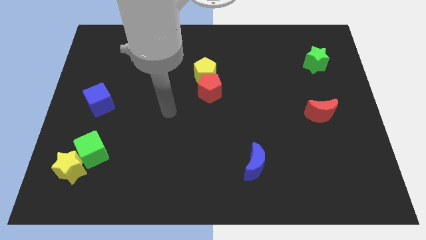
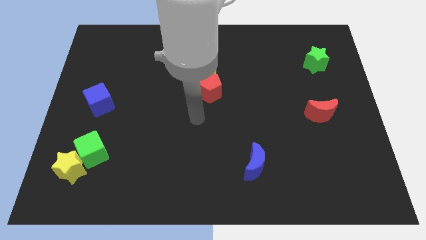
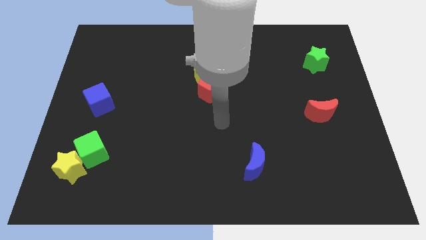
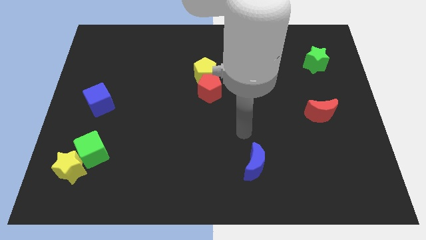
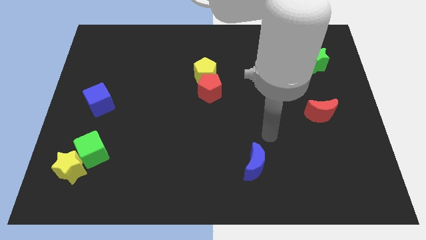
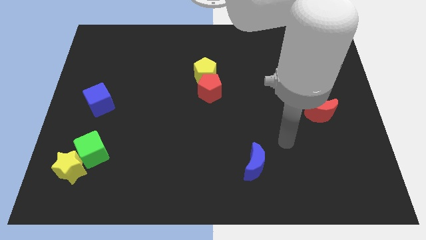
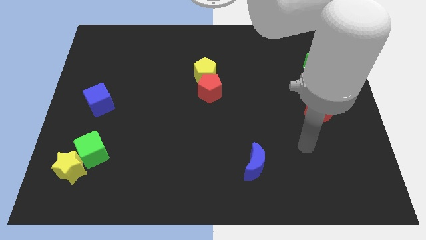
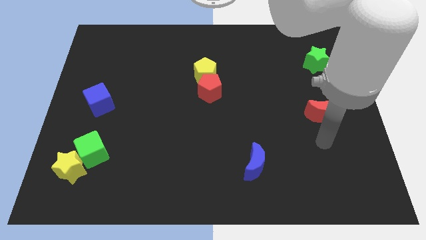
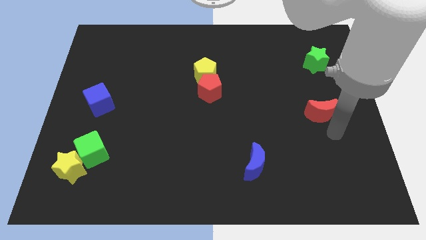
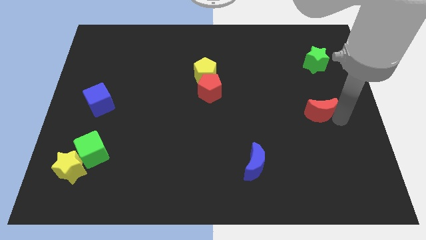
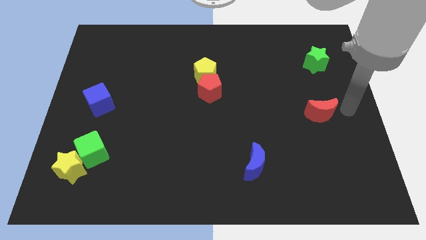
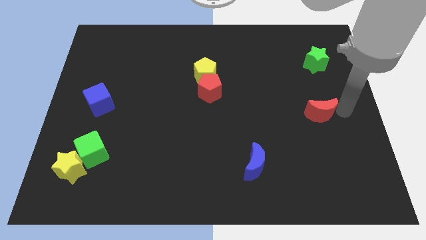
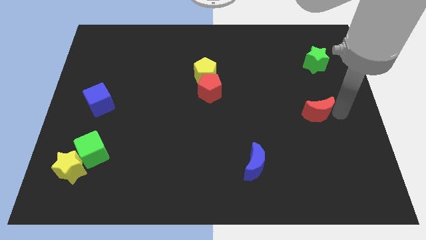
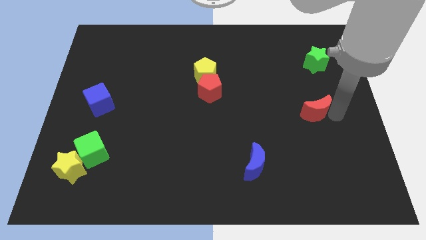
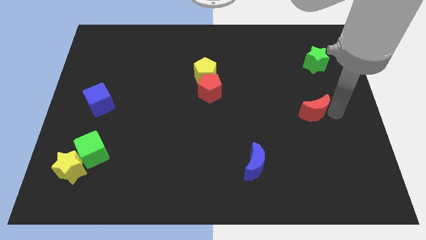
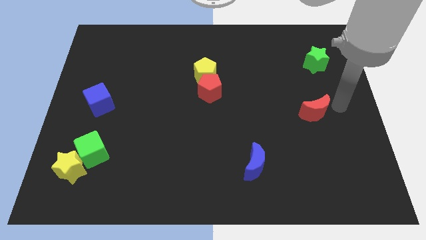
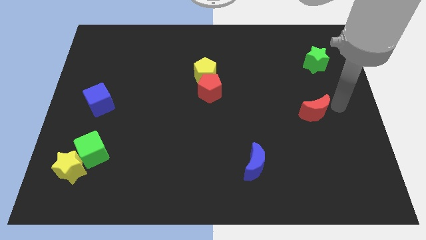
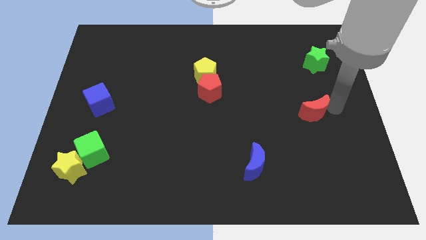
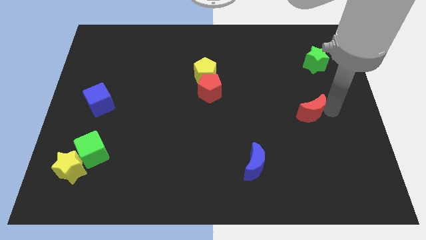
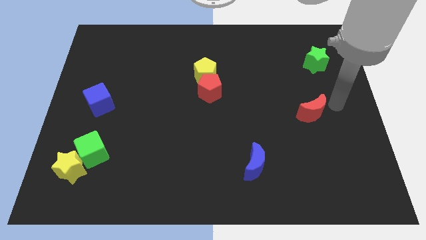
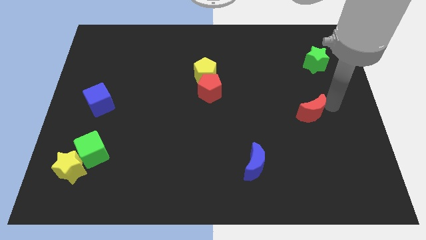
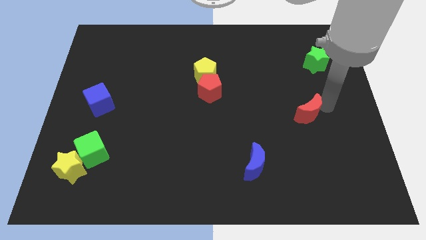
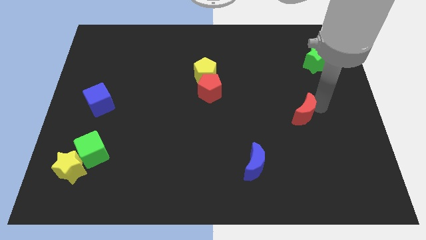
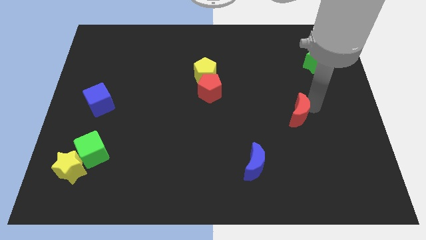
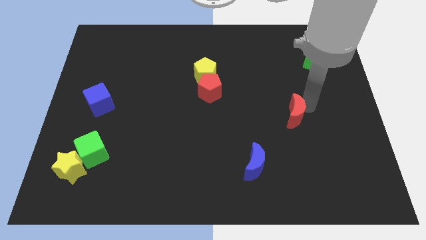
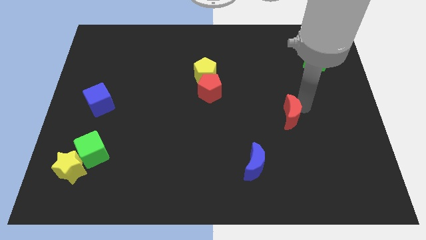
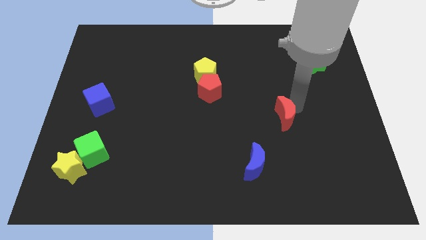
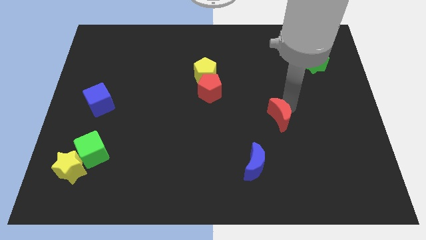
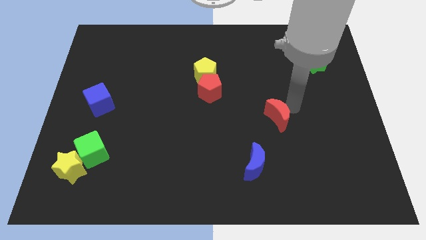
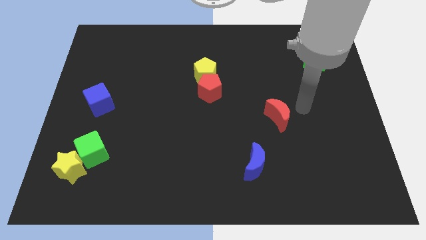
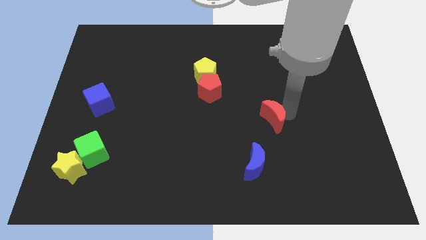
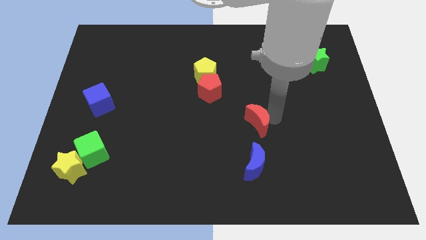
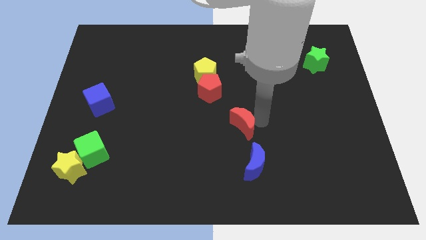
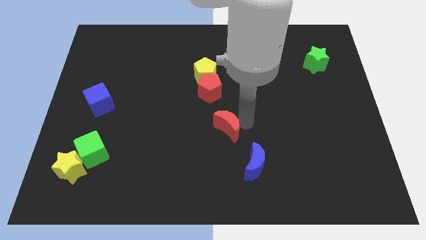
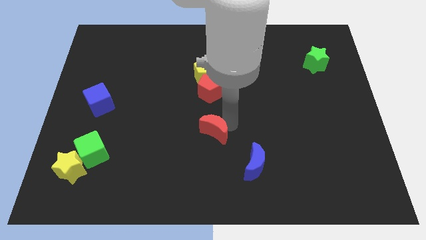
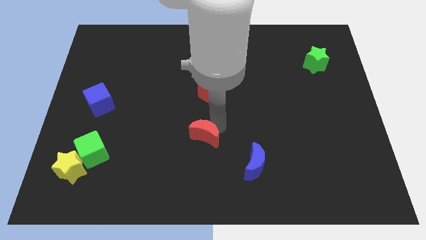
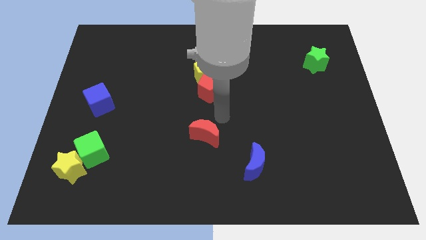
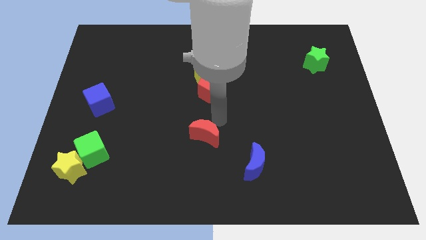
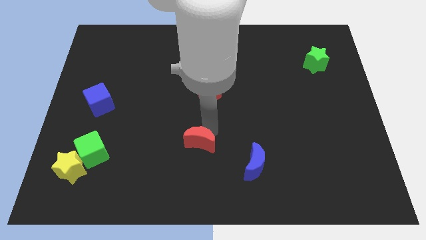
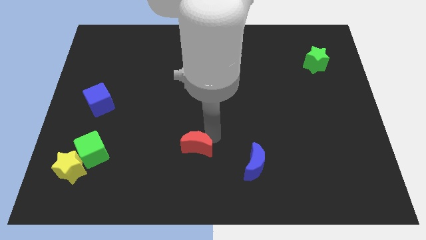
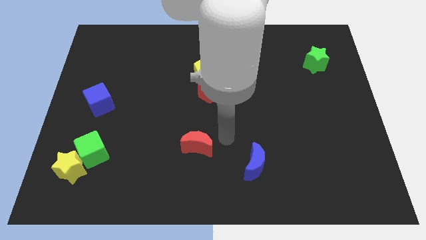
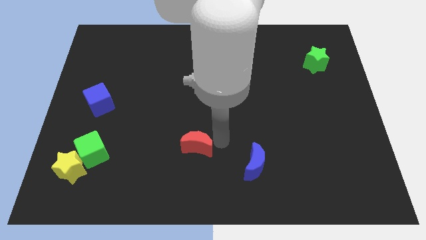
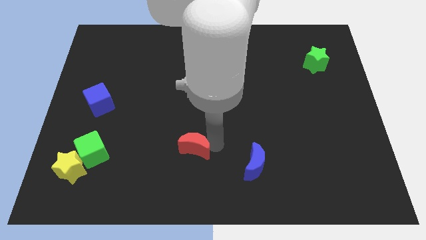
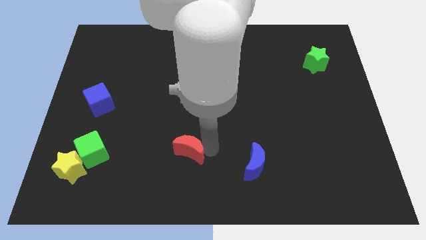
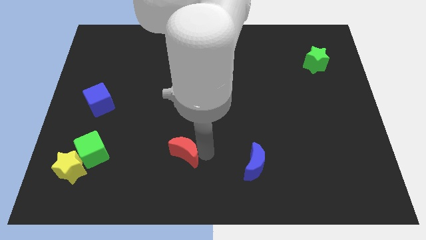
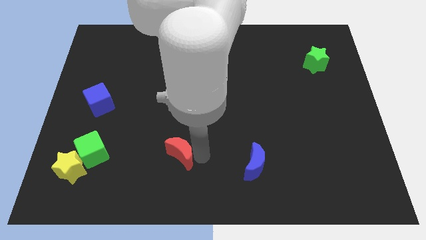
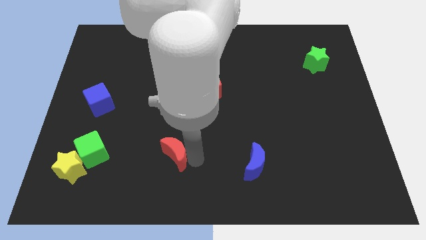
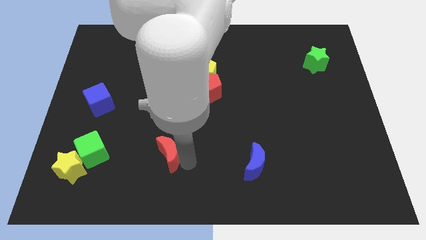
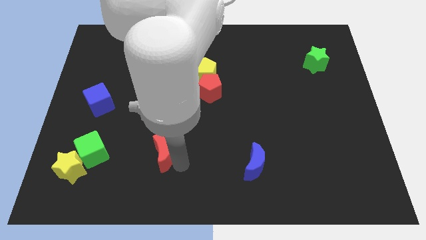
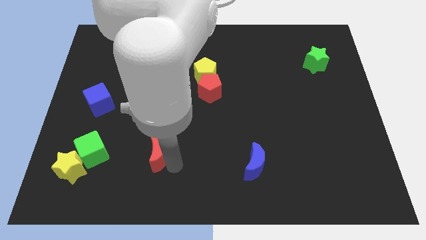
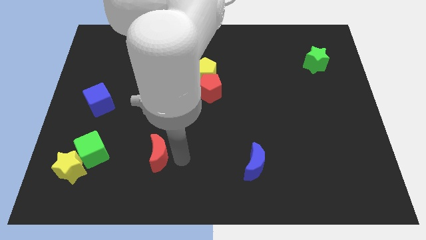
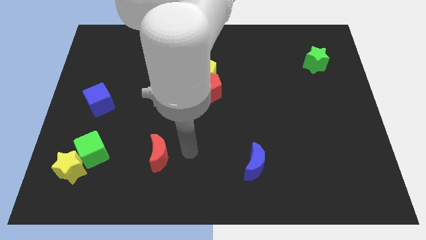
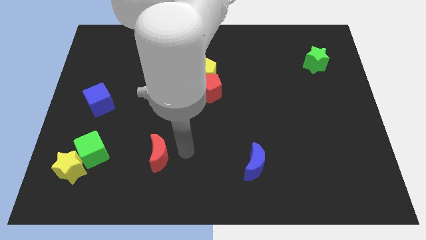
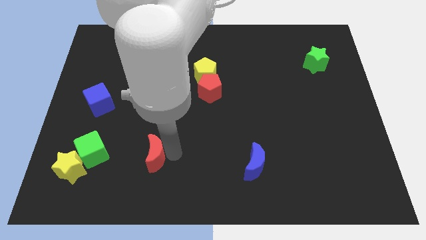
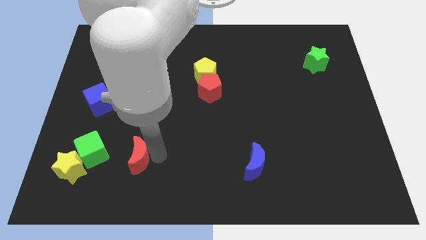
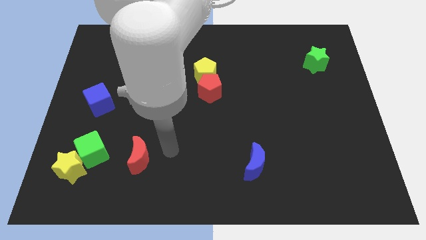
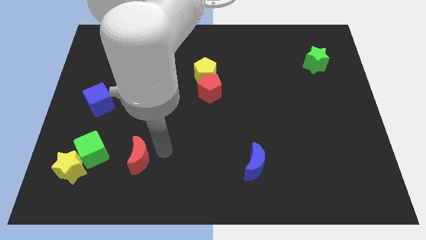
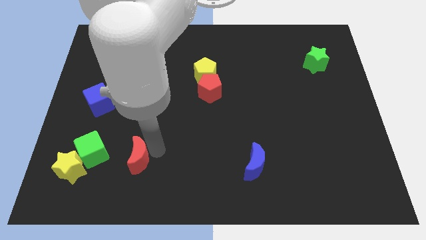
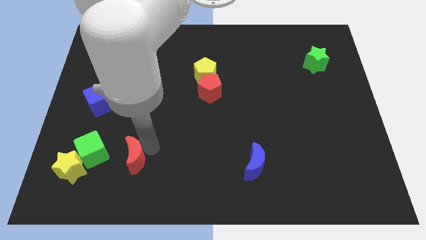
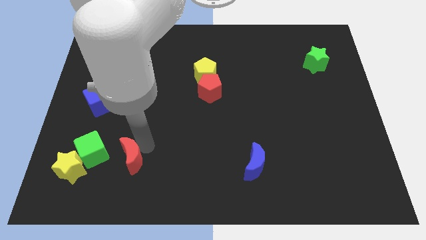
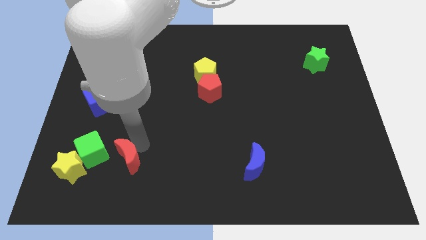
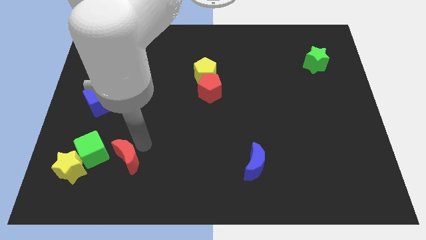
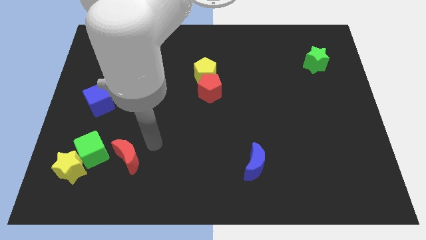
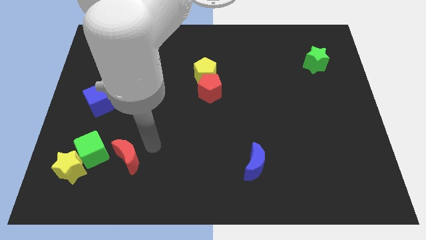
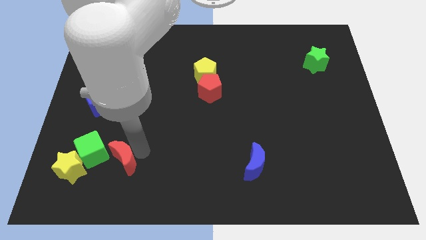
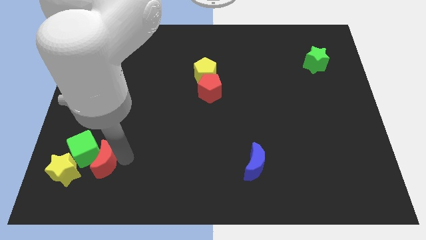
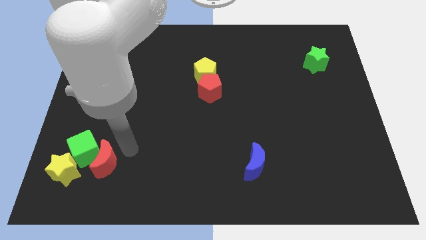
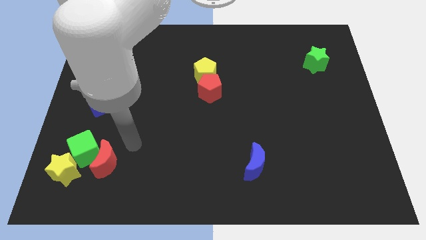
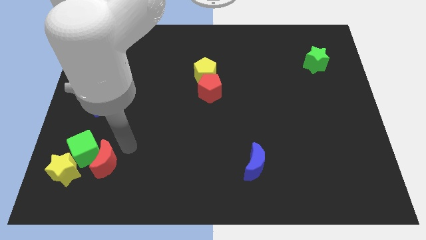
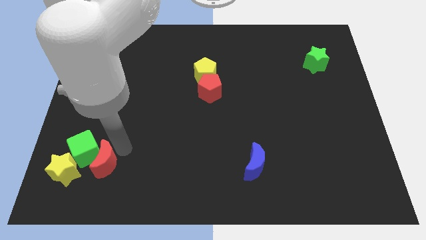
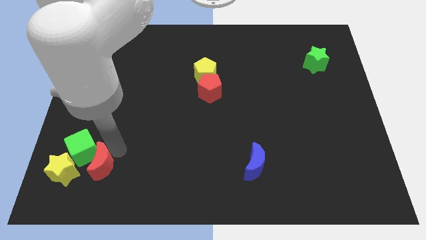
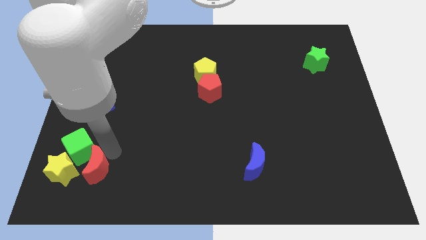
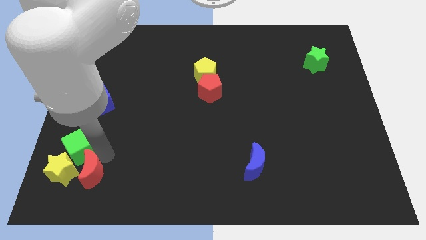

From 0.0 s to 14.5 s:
move the red moon next to the yellow star

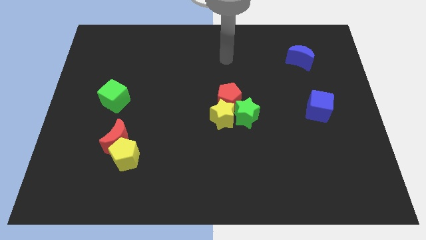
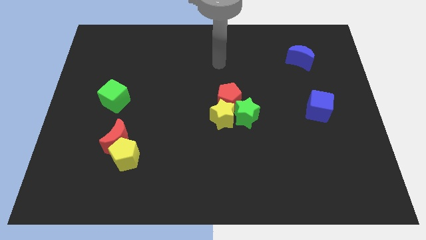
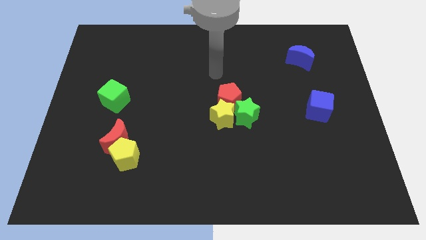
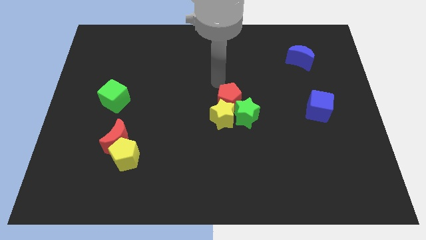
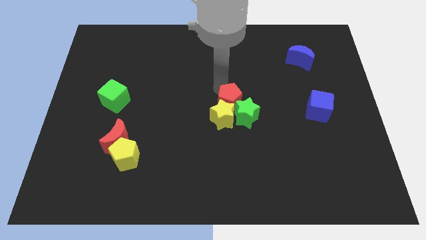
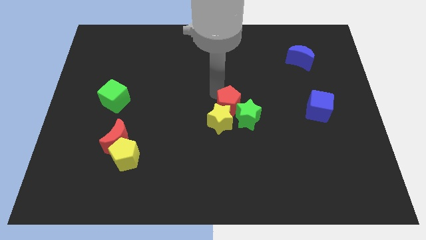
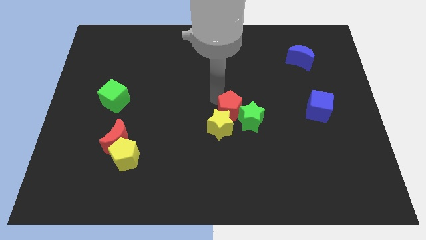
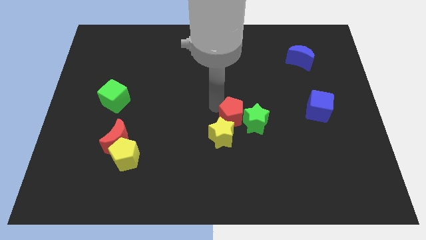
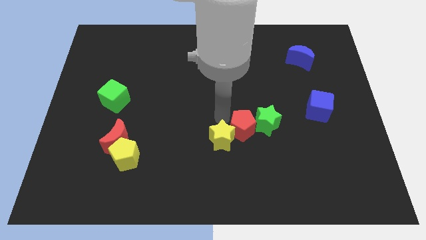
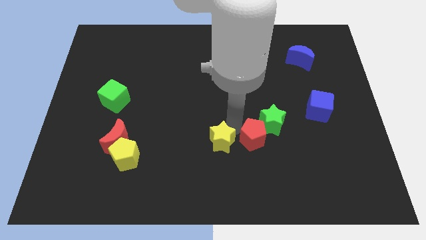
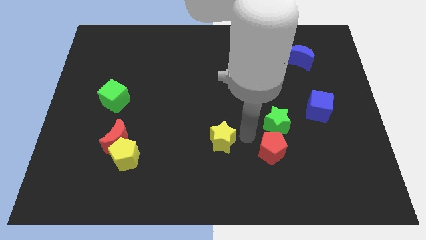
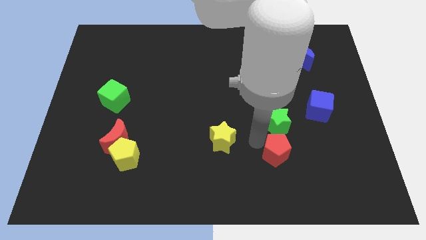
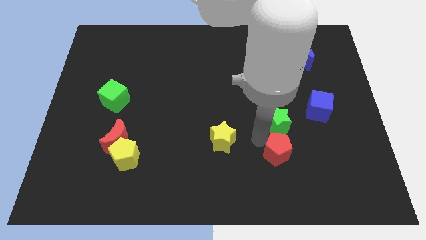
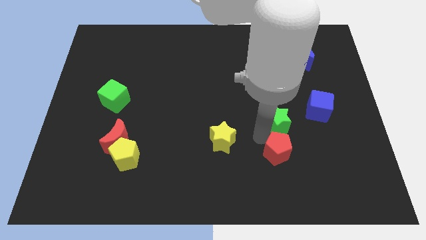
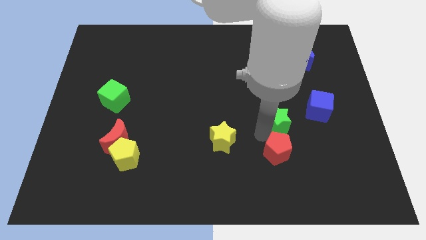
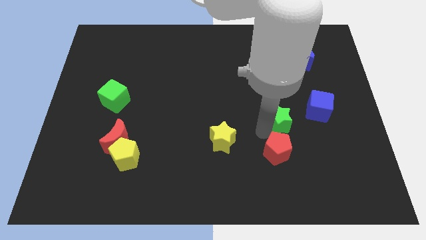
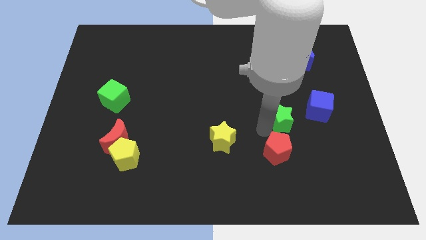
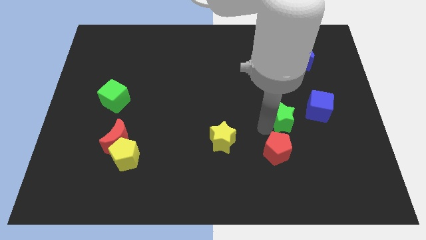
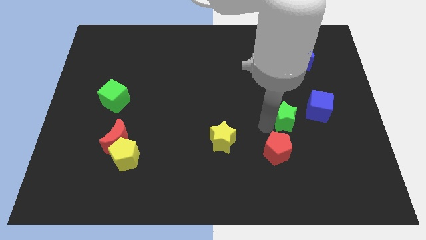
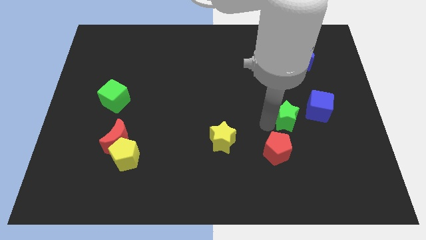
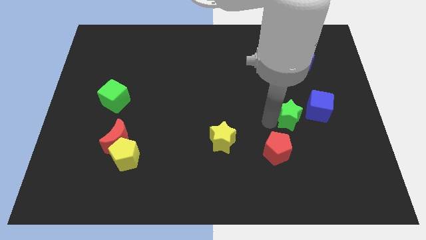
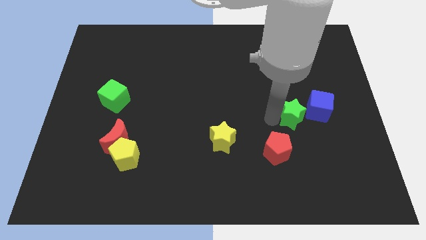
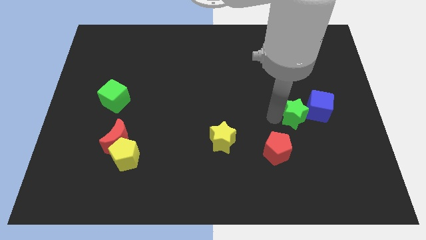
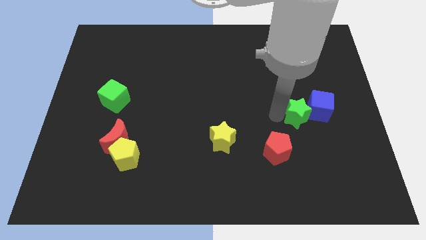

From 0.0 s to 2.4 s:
slide the green star next to the blue cube
